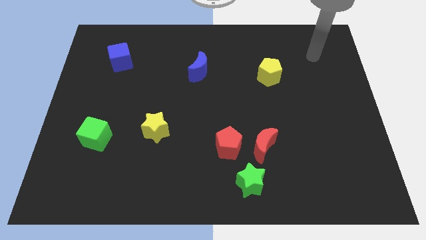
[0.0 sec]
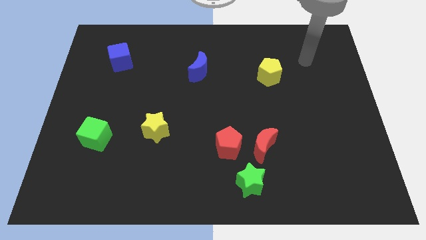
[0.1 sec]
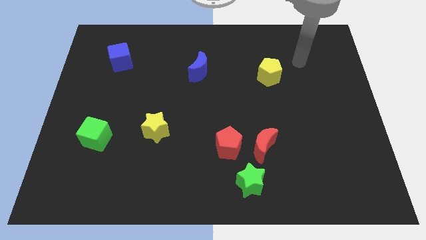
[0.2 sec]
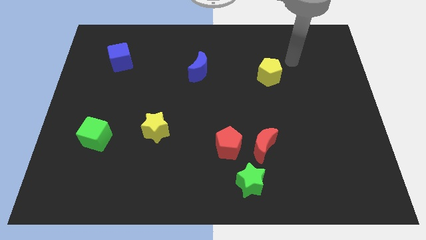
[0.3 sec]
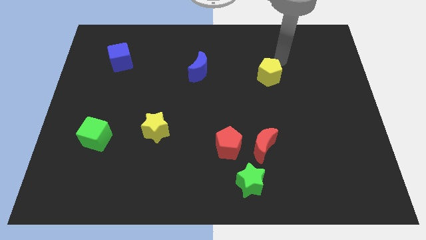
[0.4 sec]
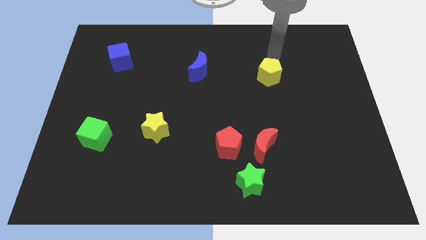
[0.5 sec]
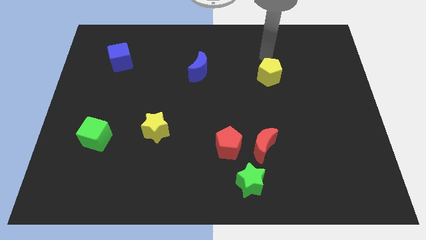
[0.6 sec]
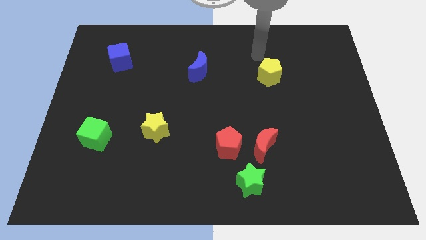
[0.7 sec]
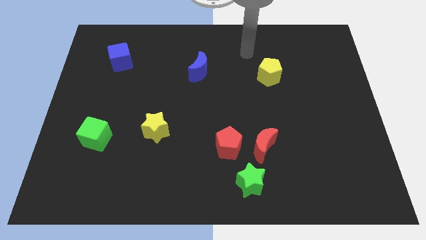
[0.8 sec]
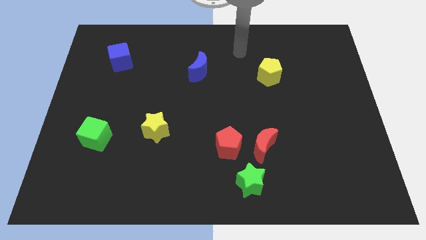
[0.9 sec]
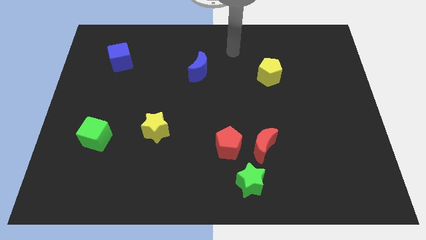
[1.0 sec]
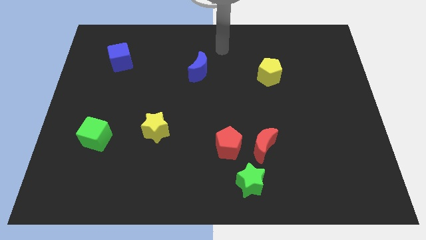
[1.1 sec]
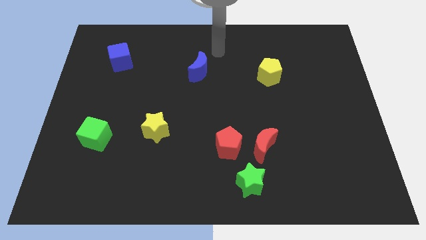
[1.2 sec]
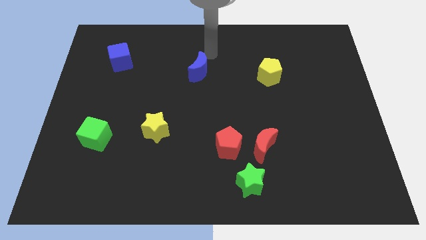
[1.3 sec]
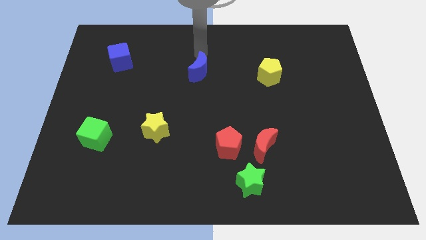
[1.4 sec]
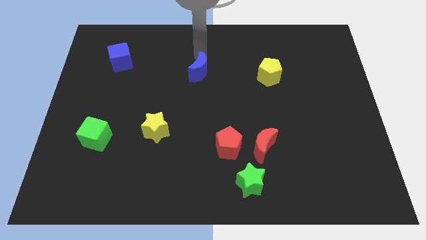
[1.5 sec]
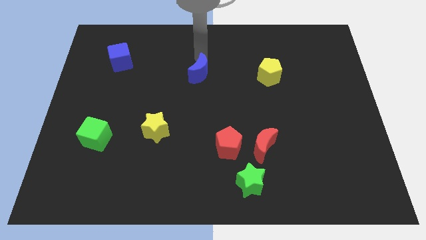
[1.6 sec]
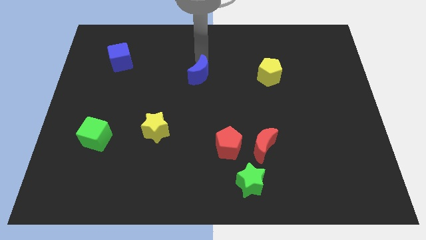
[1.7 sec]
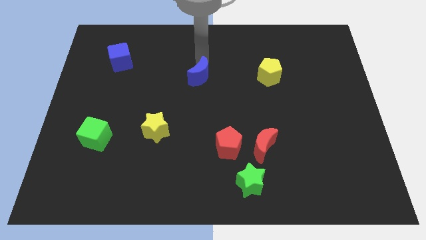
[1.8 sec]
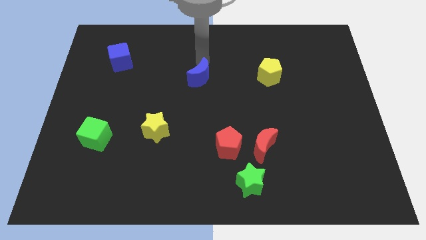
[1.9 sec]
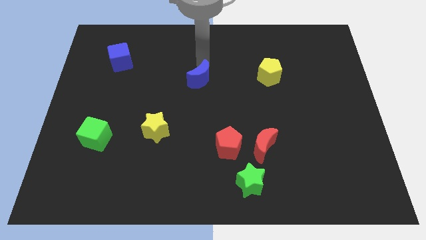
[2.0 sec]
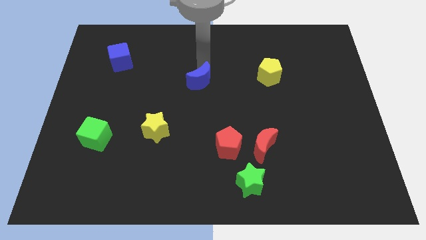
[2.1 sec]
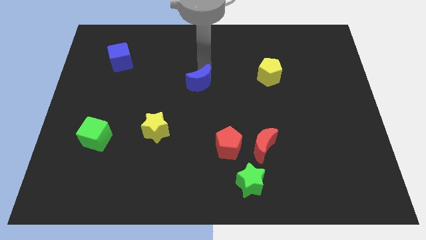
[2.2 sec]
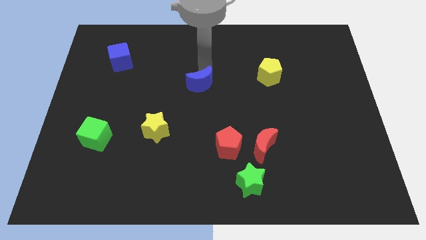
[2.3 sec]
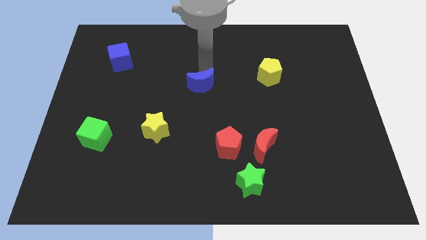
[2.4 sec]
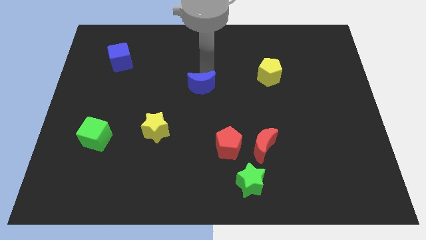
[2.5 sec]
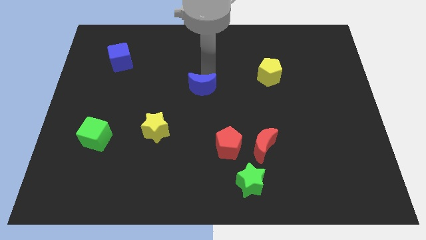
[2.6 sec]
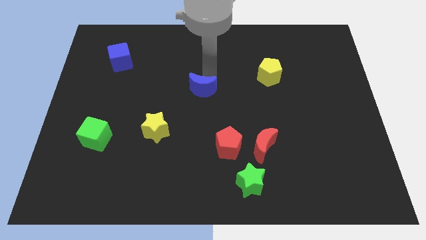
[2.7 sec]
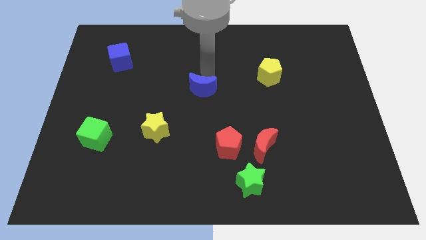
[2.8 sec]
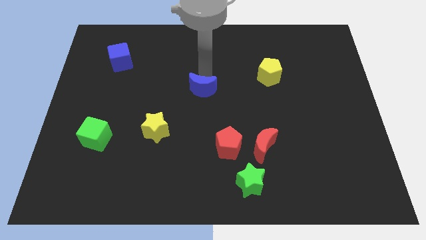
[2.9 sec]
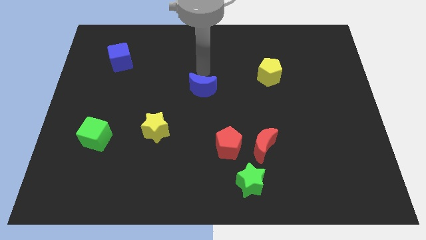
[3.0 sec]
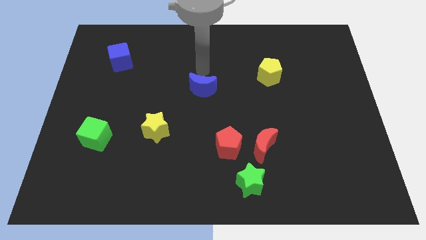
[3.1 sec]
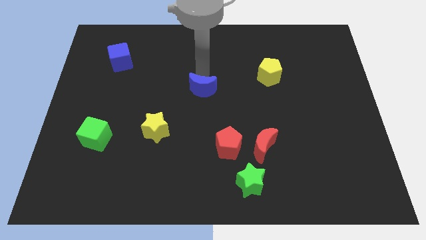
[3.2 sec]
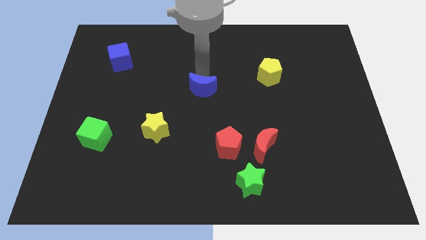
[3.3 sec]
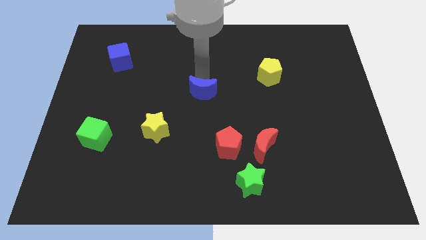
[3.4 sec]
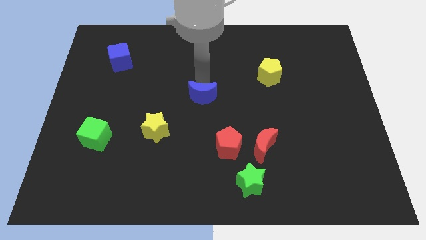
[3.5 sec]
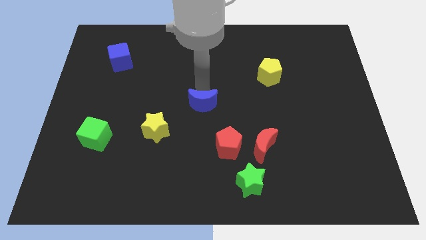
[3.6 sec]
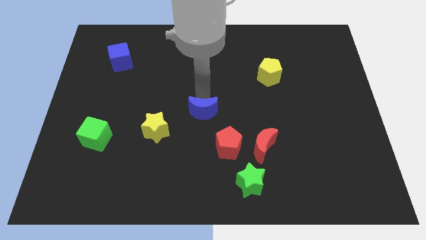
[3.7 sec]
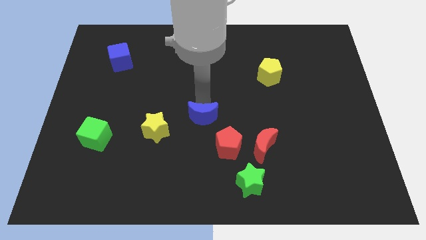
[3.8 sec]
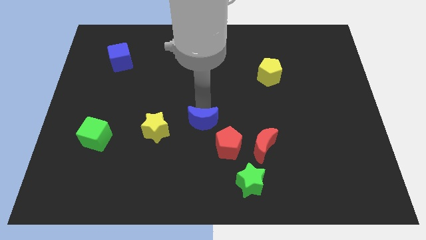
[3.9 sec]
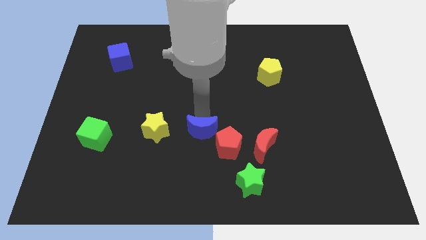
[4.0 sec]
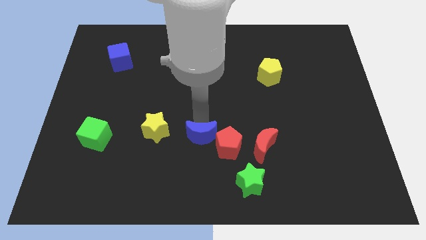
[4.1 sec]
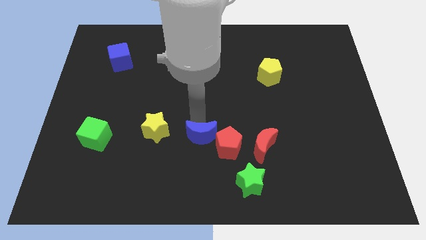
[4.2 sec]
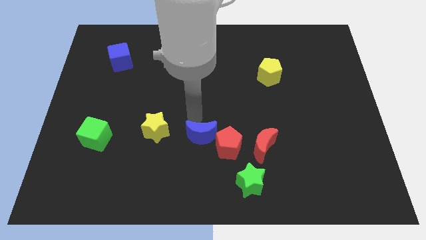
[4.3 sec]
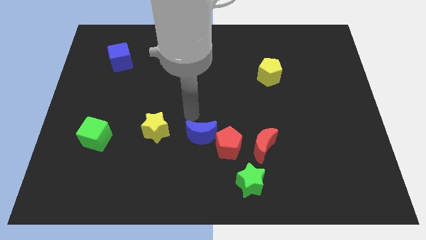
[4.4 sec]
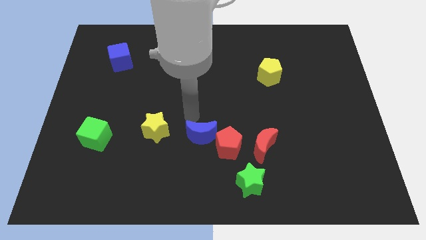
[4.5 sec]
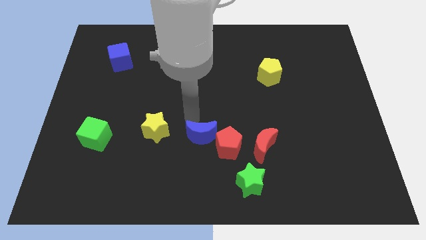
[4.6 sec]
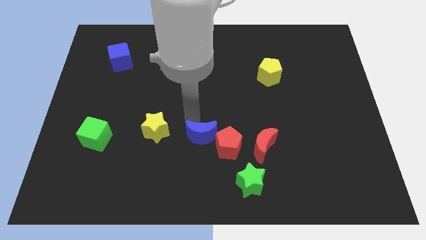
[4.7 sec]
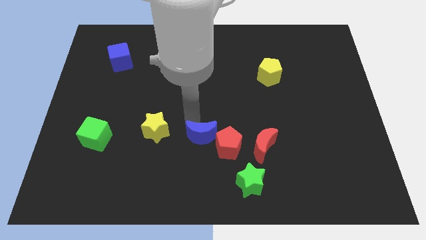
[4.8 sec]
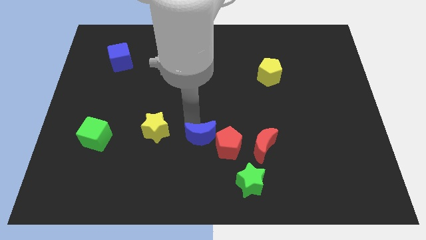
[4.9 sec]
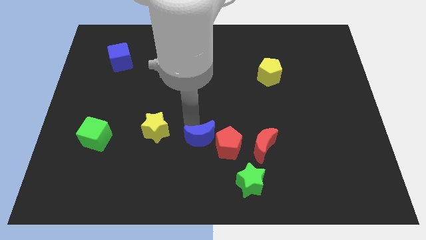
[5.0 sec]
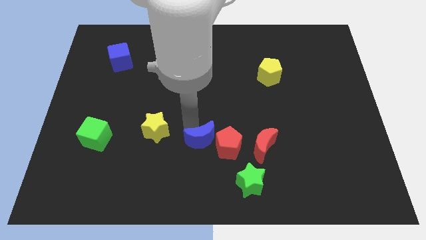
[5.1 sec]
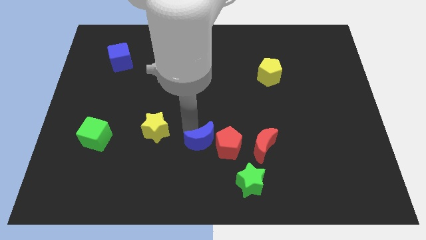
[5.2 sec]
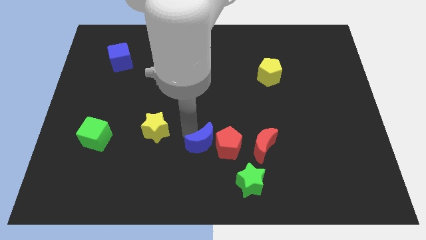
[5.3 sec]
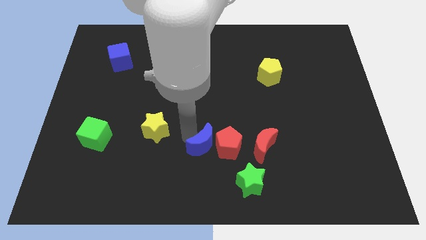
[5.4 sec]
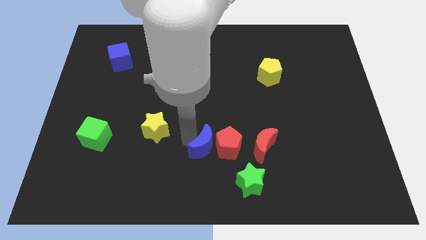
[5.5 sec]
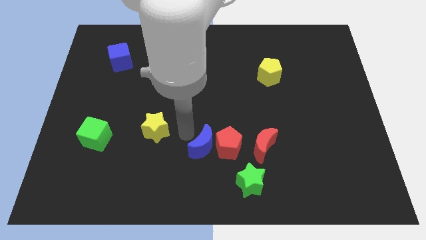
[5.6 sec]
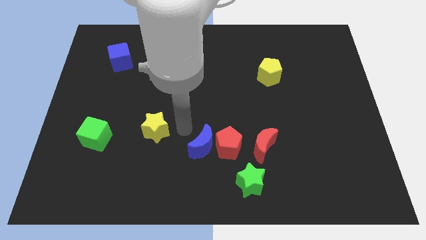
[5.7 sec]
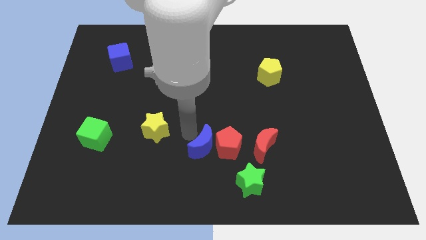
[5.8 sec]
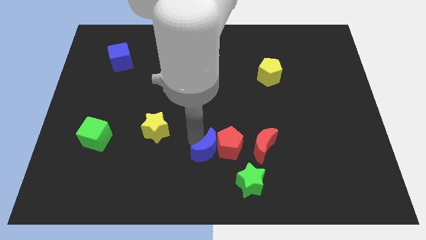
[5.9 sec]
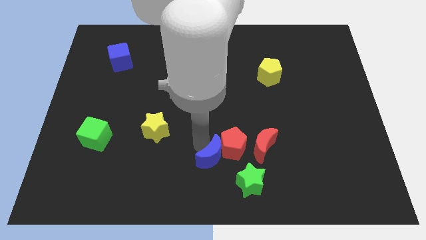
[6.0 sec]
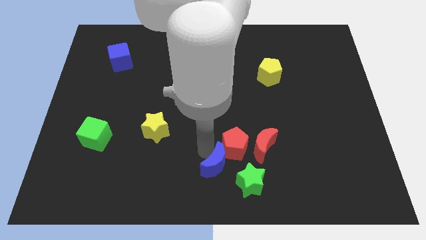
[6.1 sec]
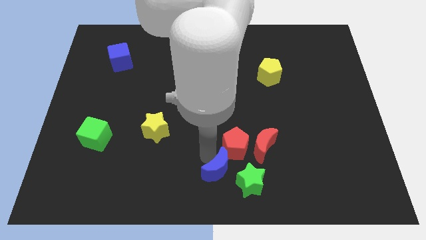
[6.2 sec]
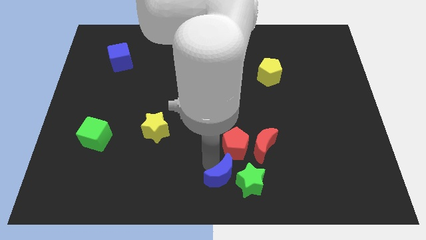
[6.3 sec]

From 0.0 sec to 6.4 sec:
push the blue moon next to the green star

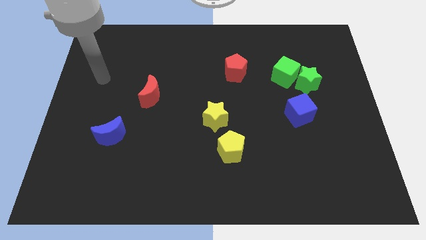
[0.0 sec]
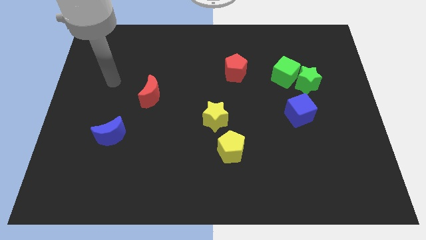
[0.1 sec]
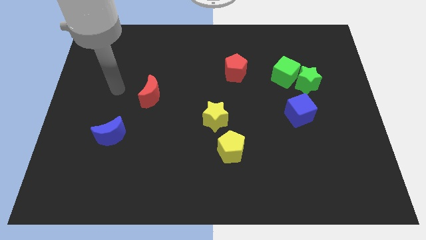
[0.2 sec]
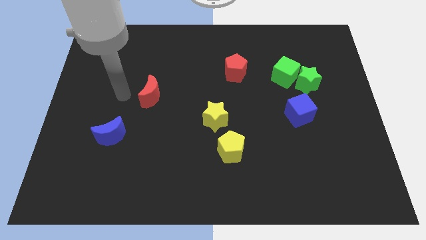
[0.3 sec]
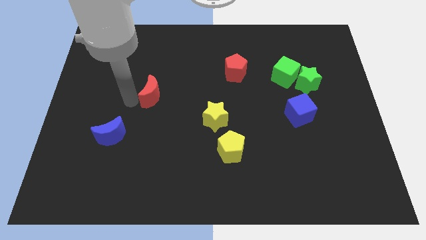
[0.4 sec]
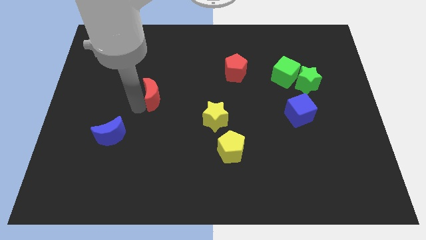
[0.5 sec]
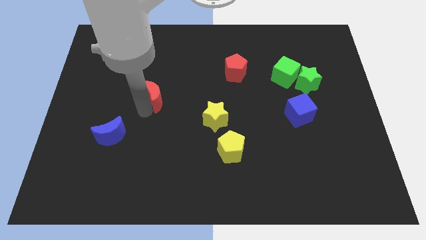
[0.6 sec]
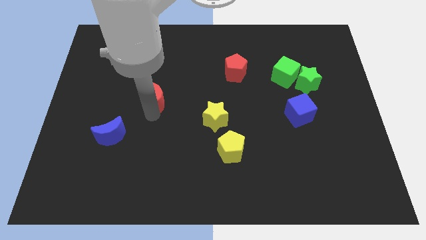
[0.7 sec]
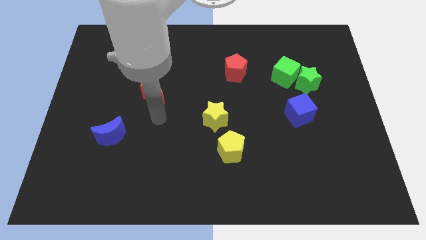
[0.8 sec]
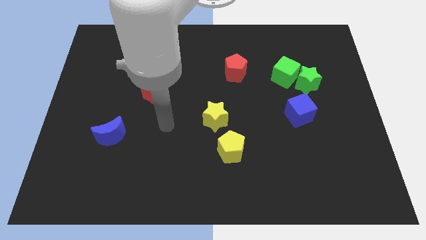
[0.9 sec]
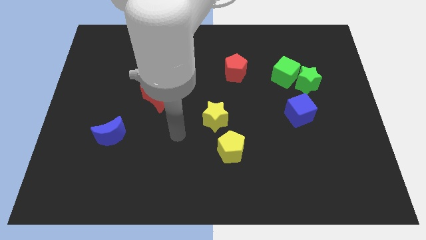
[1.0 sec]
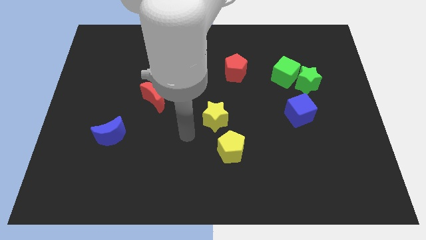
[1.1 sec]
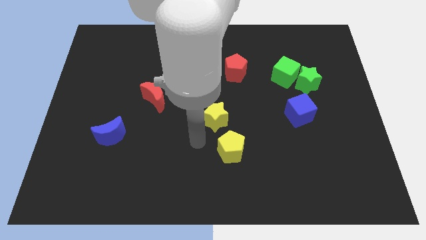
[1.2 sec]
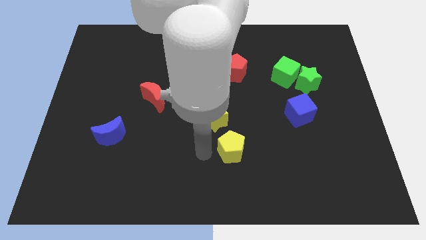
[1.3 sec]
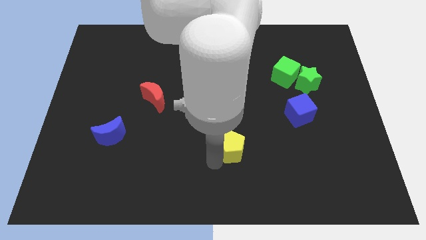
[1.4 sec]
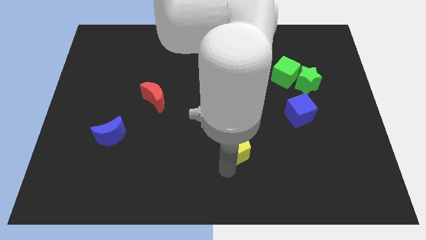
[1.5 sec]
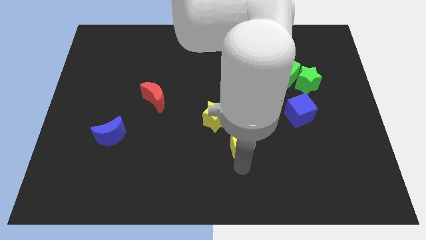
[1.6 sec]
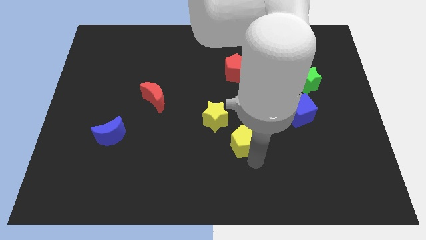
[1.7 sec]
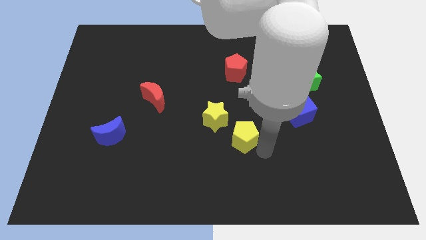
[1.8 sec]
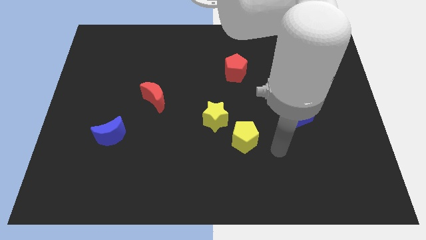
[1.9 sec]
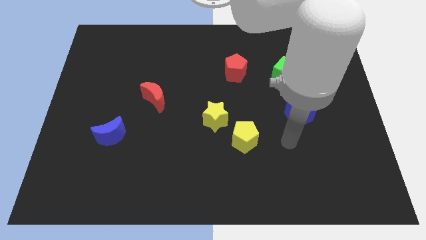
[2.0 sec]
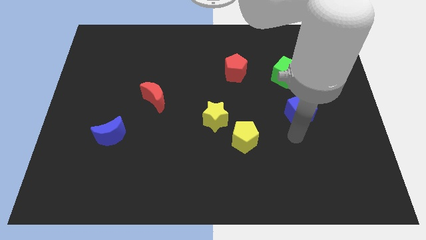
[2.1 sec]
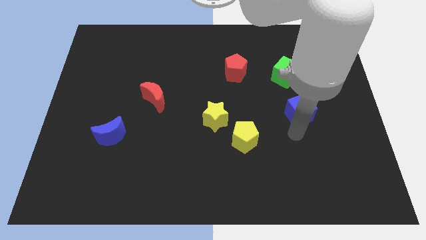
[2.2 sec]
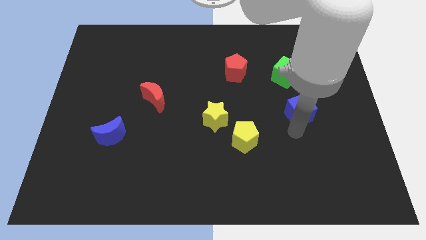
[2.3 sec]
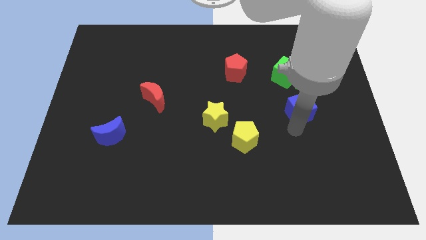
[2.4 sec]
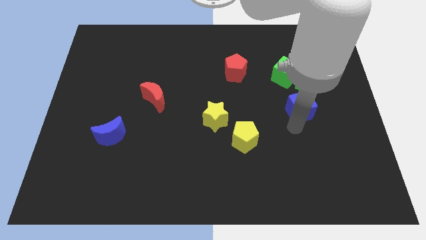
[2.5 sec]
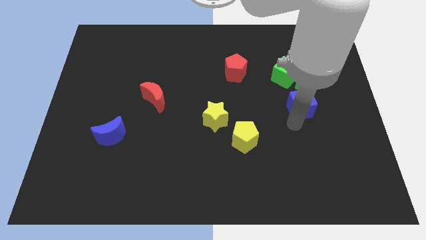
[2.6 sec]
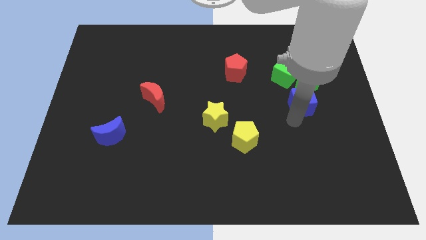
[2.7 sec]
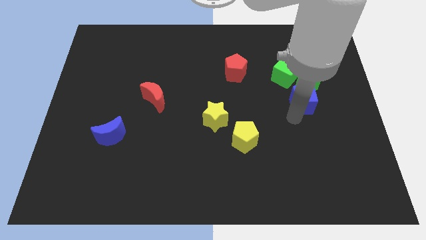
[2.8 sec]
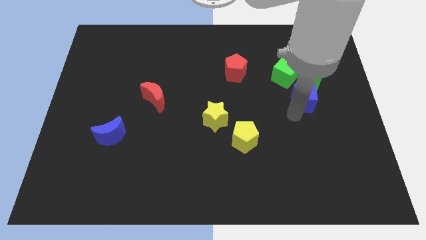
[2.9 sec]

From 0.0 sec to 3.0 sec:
move the blue cube next to the green star
